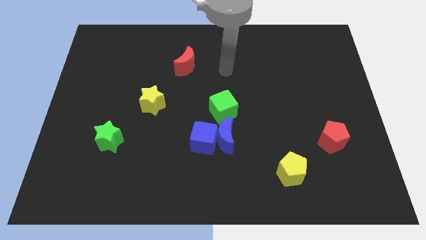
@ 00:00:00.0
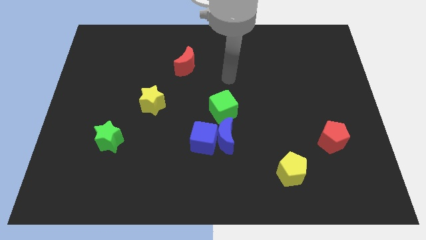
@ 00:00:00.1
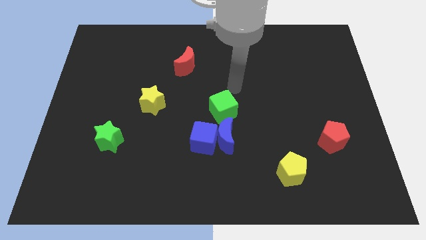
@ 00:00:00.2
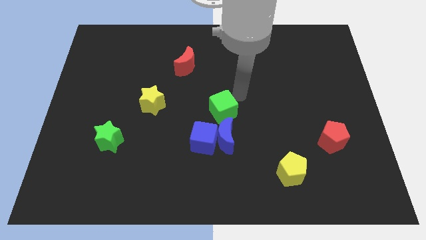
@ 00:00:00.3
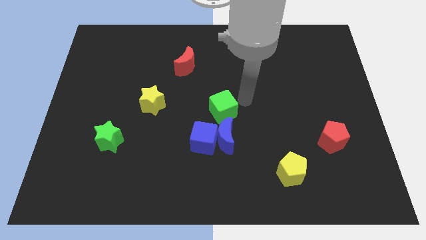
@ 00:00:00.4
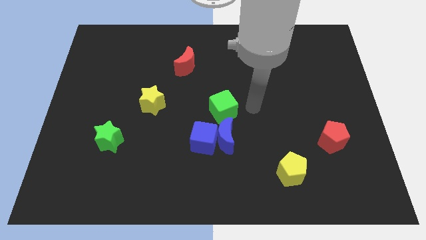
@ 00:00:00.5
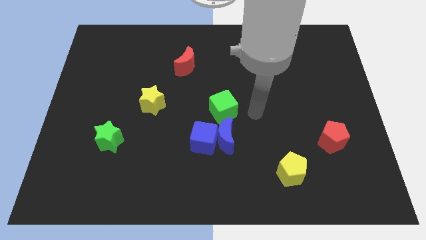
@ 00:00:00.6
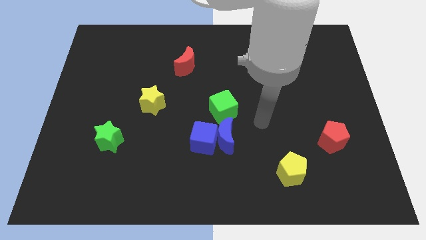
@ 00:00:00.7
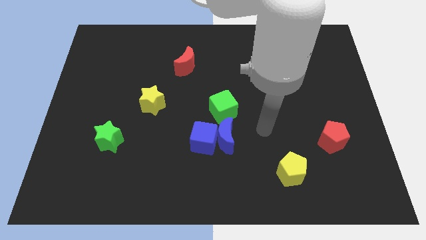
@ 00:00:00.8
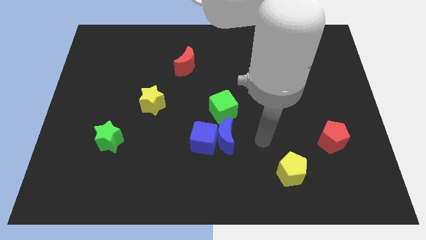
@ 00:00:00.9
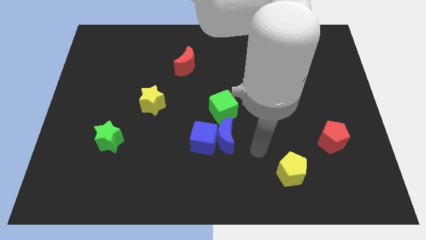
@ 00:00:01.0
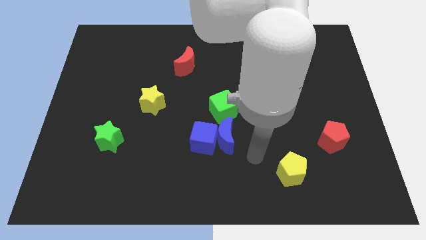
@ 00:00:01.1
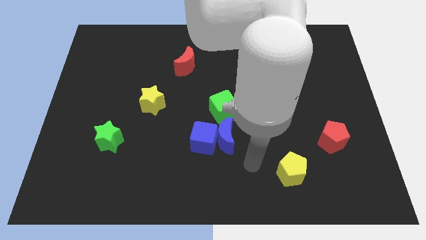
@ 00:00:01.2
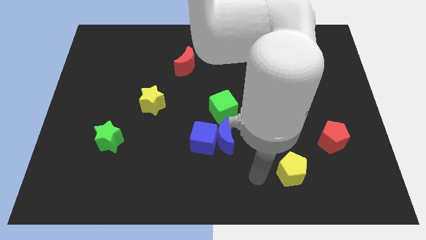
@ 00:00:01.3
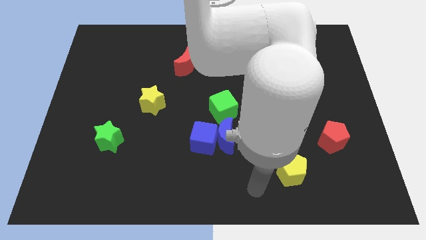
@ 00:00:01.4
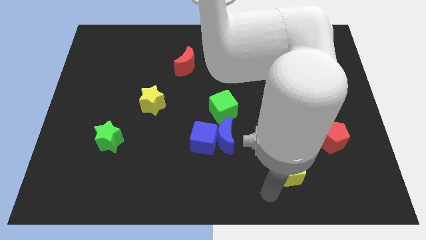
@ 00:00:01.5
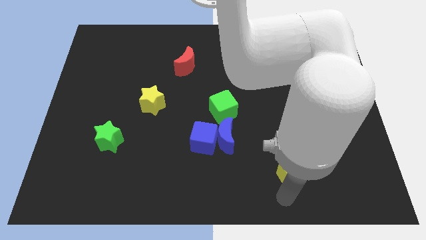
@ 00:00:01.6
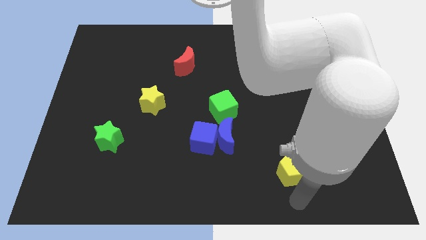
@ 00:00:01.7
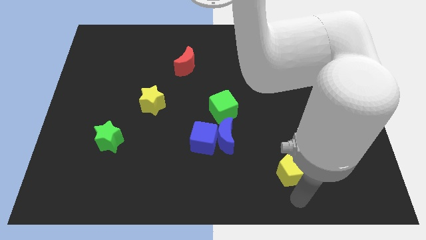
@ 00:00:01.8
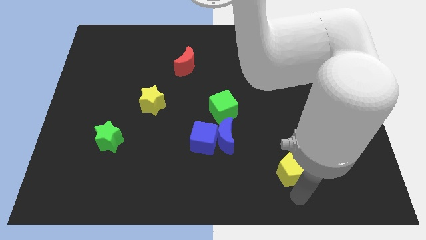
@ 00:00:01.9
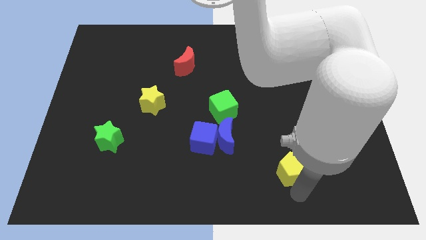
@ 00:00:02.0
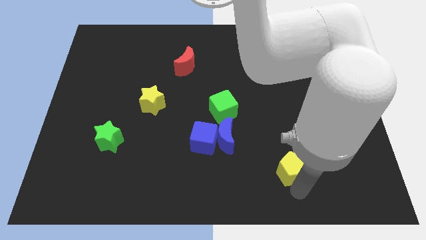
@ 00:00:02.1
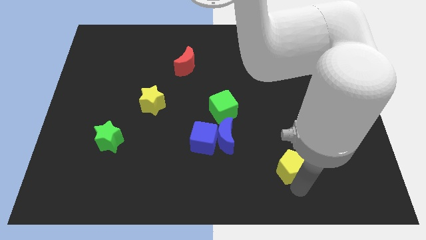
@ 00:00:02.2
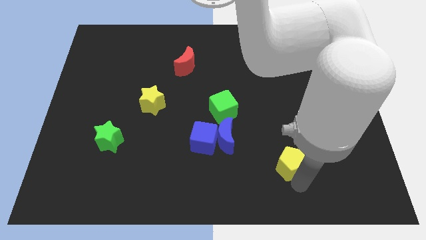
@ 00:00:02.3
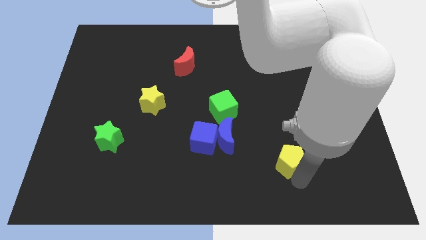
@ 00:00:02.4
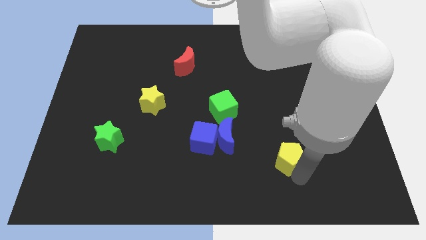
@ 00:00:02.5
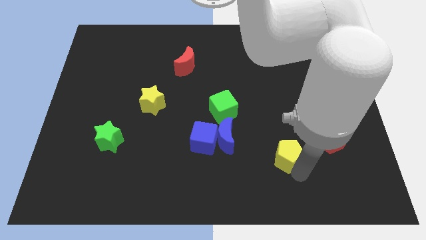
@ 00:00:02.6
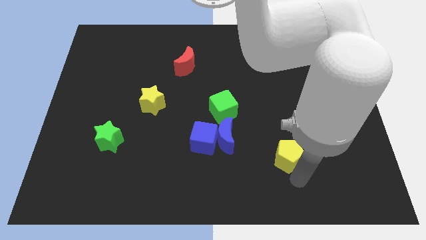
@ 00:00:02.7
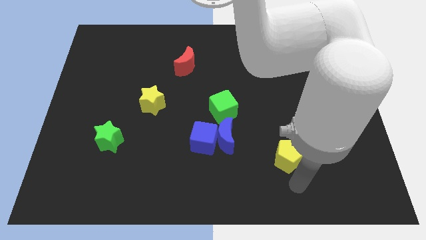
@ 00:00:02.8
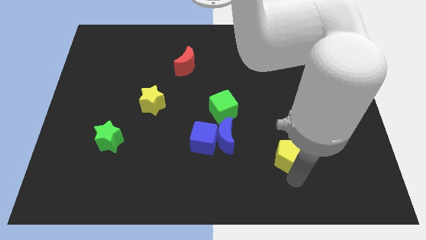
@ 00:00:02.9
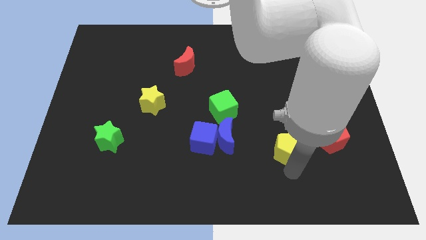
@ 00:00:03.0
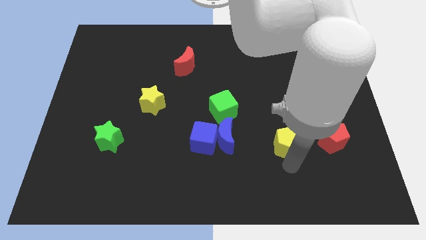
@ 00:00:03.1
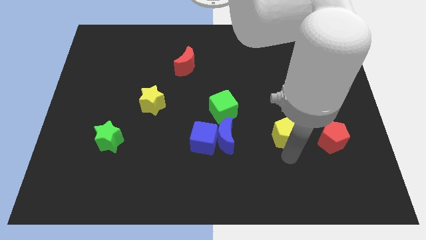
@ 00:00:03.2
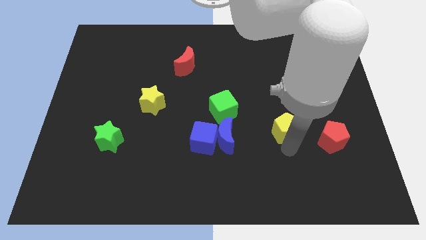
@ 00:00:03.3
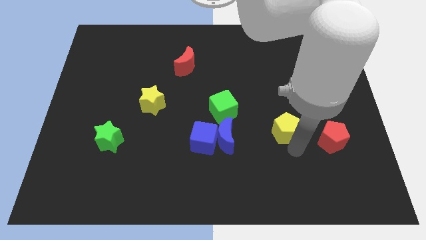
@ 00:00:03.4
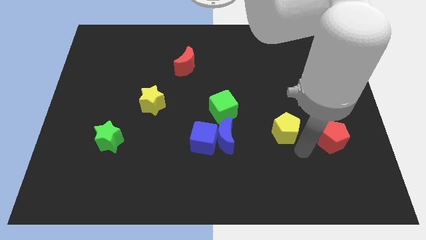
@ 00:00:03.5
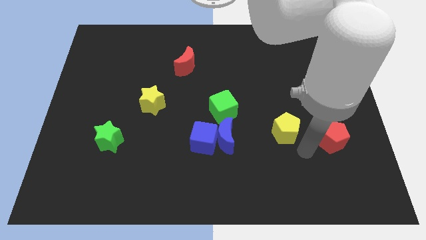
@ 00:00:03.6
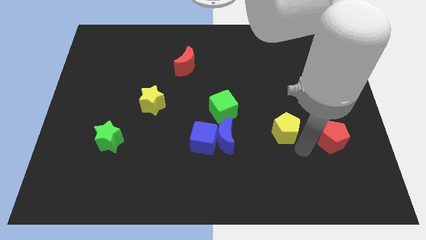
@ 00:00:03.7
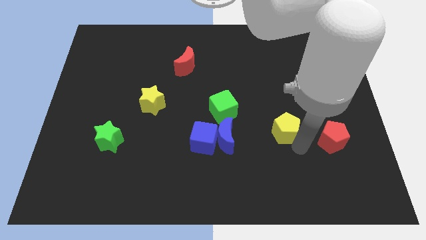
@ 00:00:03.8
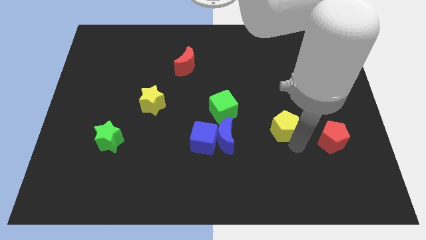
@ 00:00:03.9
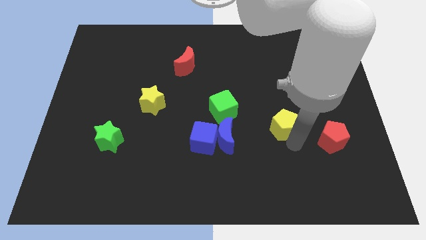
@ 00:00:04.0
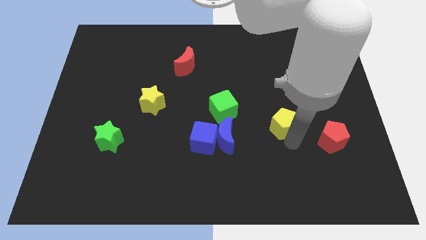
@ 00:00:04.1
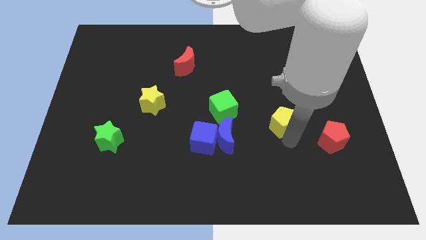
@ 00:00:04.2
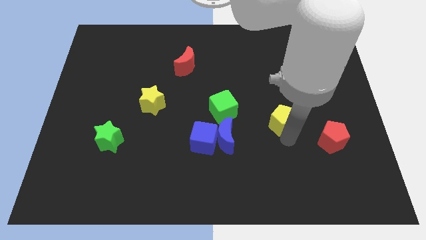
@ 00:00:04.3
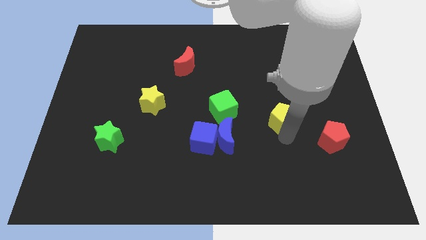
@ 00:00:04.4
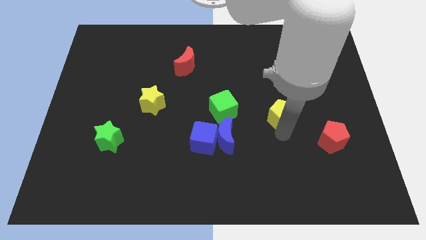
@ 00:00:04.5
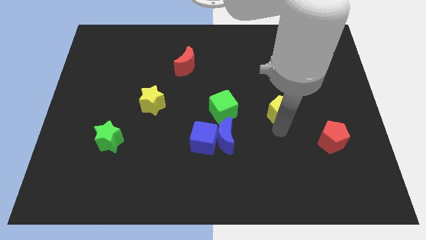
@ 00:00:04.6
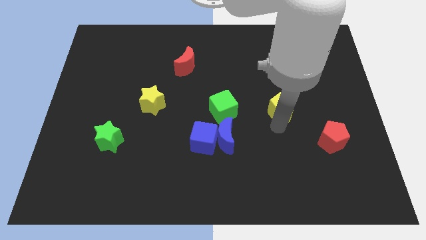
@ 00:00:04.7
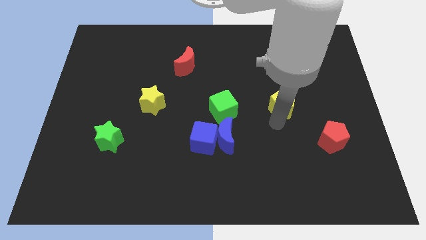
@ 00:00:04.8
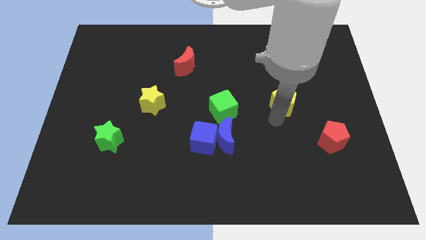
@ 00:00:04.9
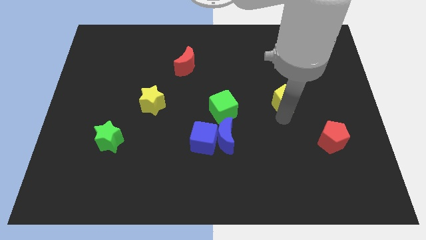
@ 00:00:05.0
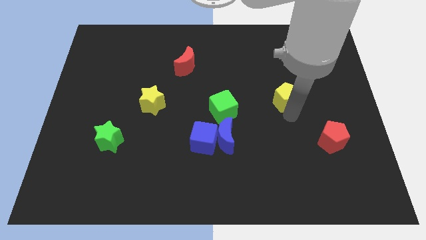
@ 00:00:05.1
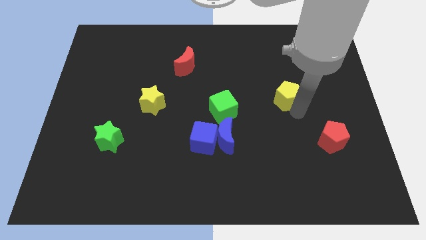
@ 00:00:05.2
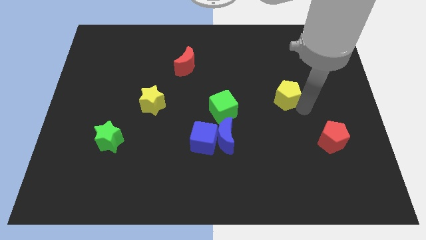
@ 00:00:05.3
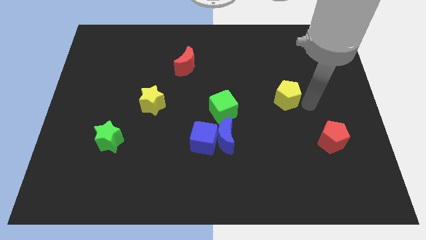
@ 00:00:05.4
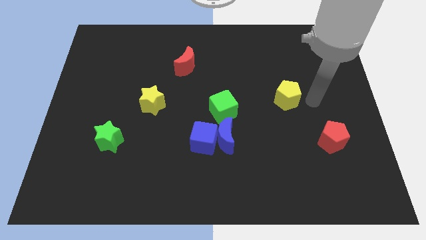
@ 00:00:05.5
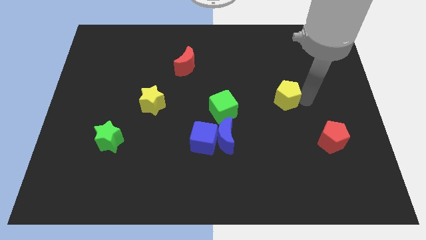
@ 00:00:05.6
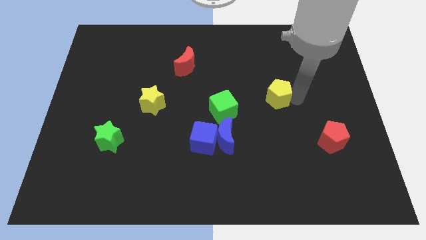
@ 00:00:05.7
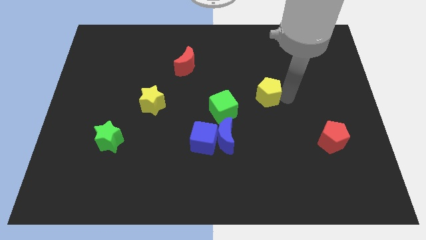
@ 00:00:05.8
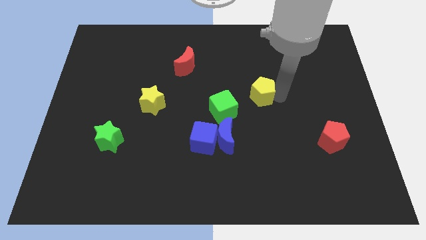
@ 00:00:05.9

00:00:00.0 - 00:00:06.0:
push the yellow pentagon to the top right of the green cube

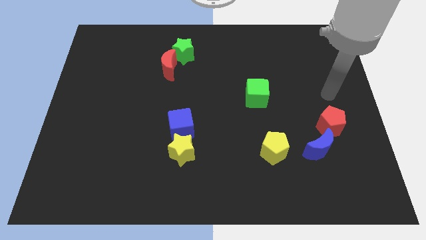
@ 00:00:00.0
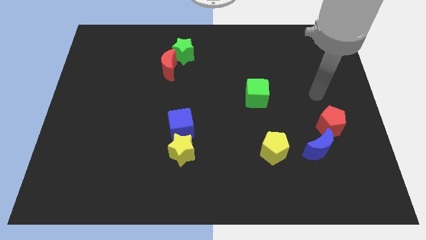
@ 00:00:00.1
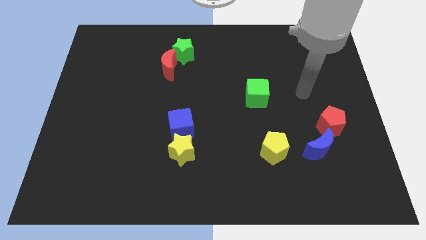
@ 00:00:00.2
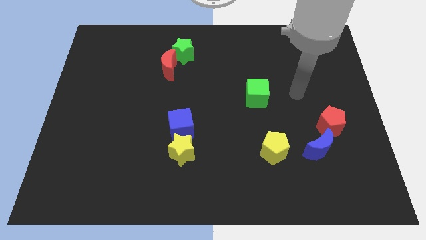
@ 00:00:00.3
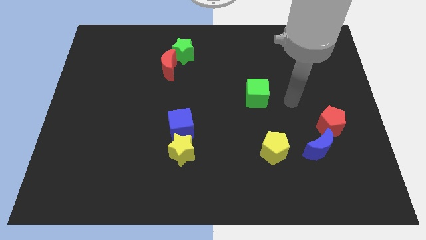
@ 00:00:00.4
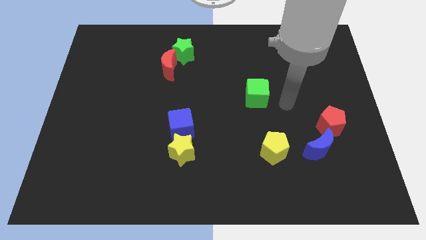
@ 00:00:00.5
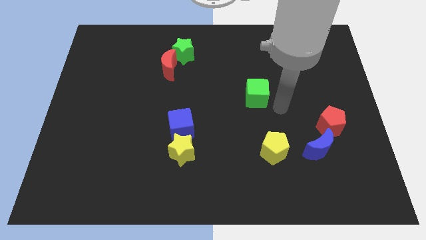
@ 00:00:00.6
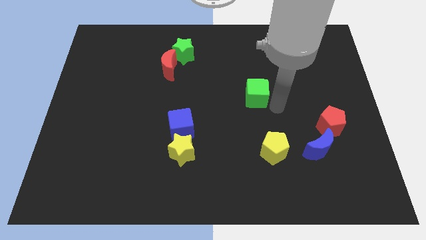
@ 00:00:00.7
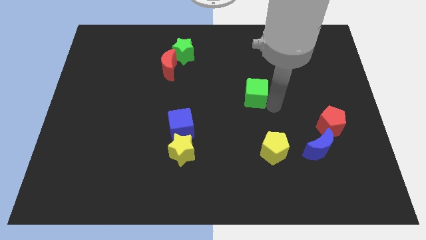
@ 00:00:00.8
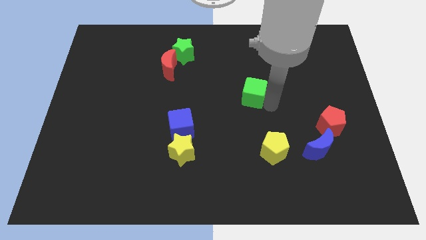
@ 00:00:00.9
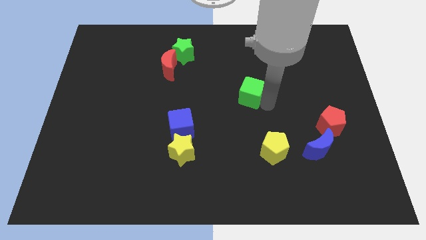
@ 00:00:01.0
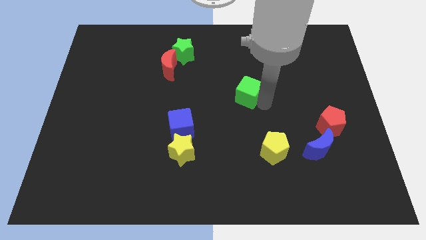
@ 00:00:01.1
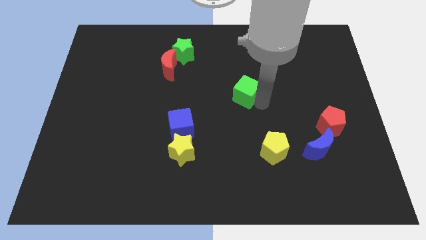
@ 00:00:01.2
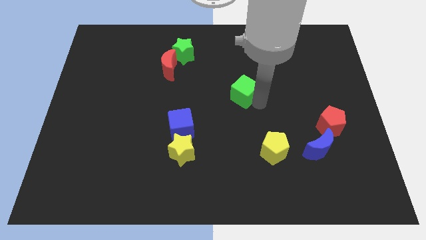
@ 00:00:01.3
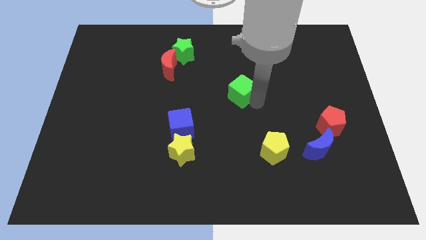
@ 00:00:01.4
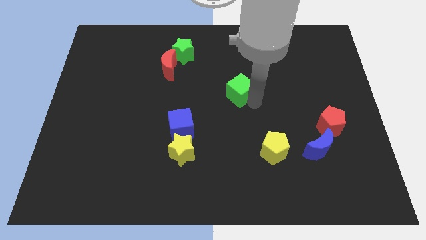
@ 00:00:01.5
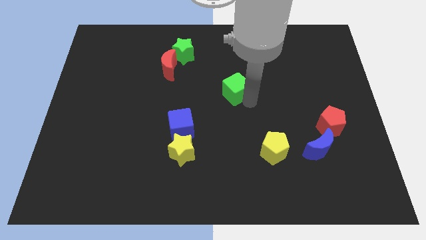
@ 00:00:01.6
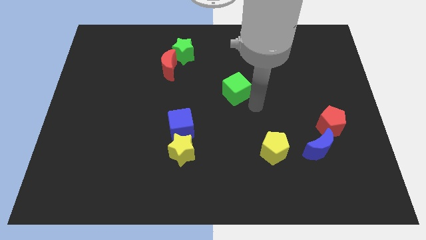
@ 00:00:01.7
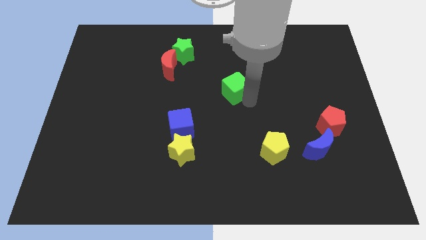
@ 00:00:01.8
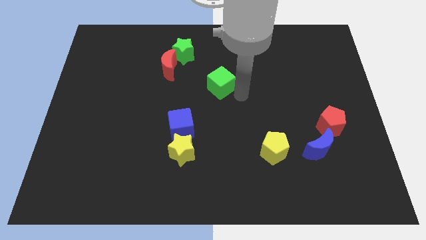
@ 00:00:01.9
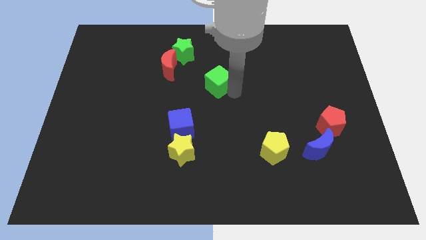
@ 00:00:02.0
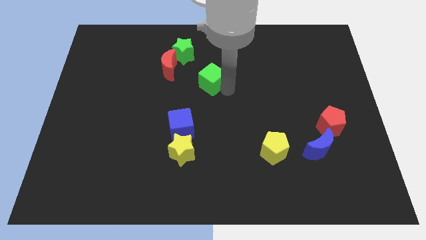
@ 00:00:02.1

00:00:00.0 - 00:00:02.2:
move the green cube to the bottom right side of the green star
